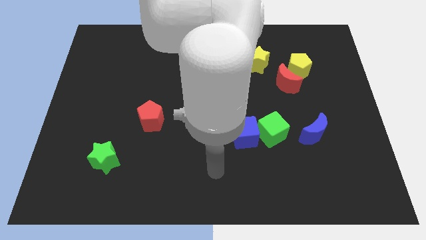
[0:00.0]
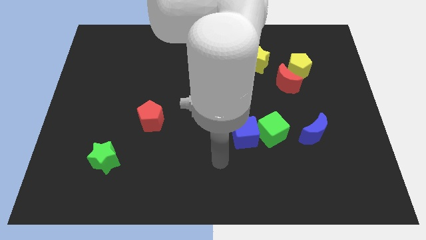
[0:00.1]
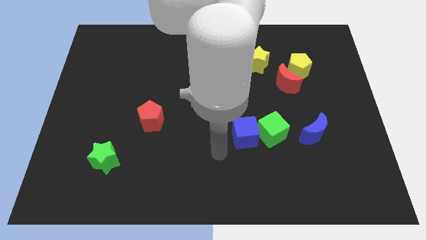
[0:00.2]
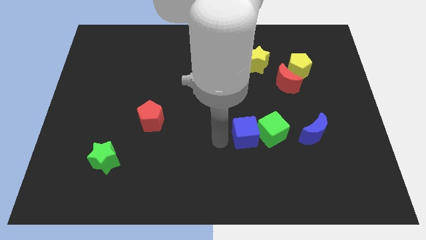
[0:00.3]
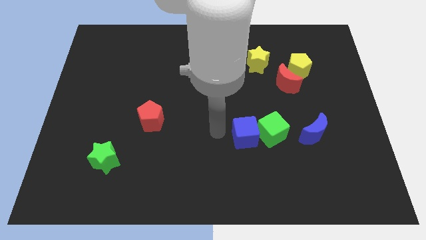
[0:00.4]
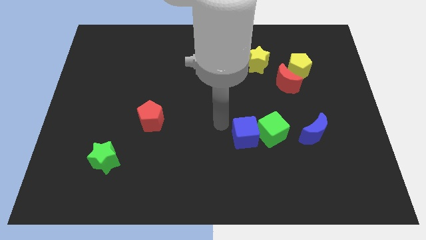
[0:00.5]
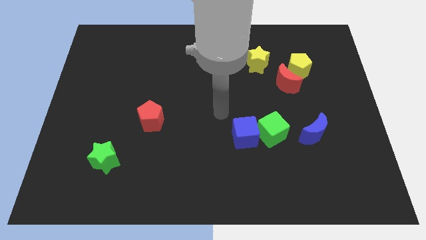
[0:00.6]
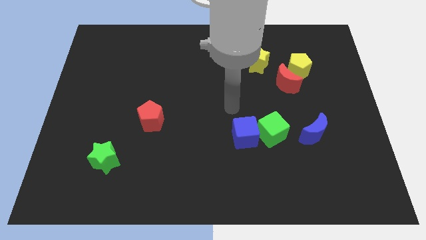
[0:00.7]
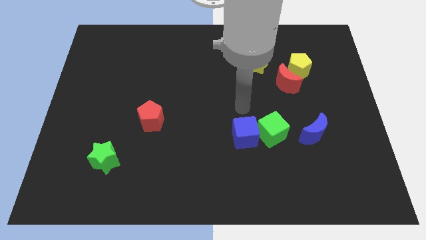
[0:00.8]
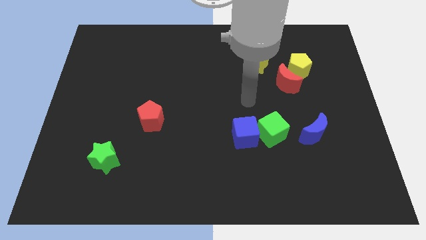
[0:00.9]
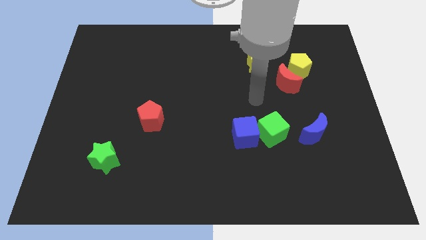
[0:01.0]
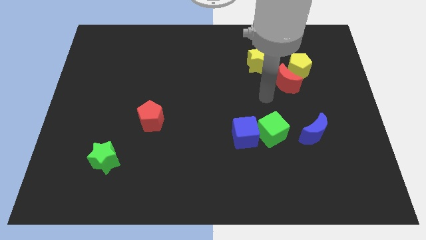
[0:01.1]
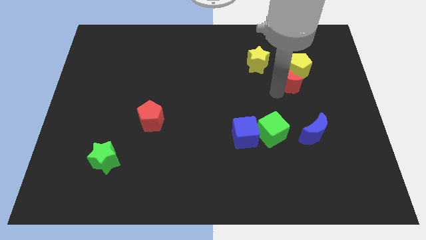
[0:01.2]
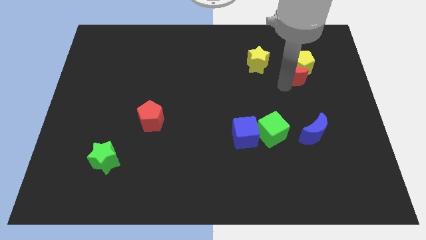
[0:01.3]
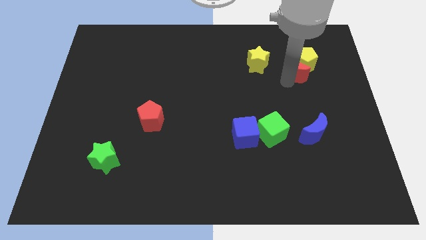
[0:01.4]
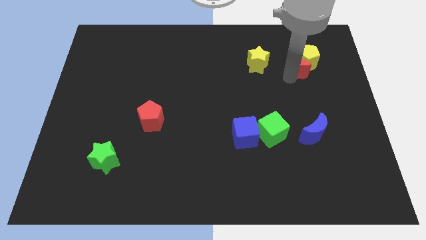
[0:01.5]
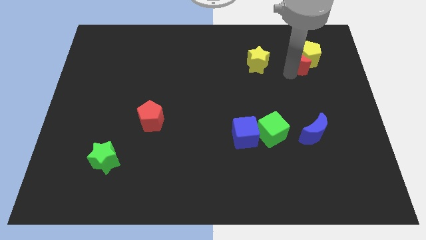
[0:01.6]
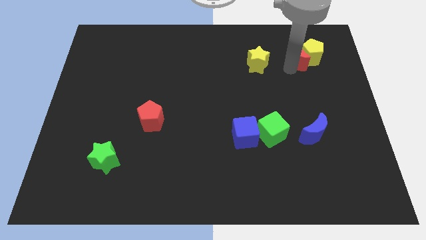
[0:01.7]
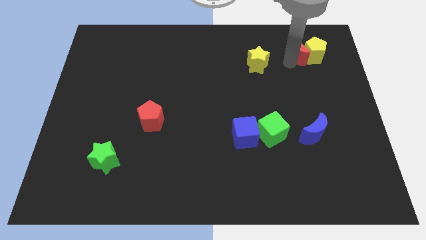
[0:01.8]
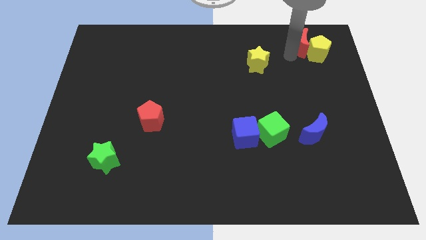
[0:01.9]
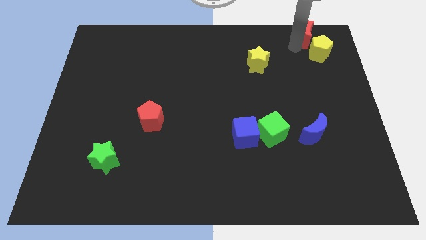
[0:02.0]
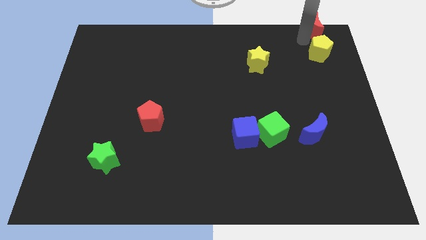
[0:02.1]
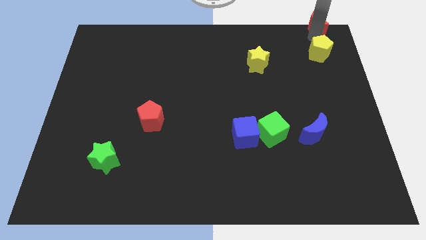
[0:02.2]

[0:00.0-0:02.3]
separate the yellow pentagon from the red moon

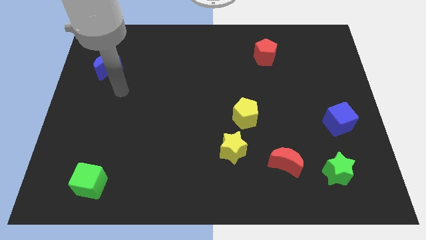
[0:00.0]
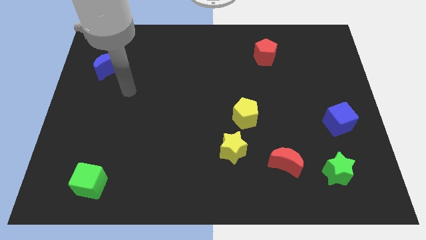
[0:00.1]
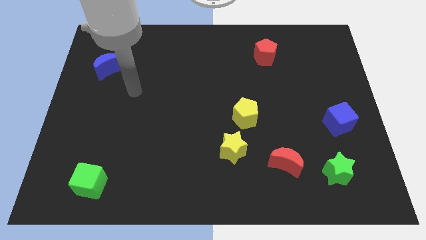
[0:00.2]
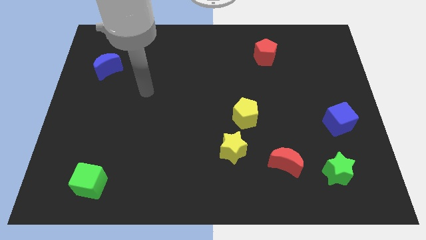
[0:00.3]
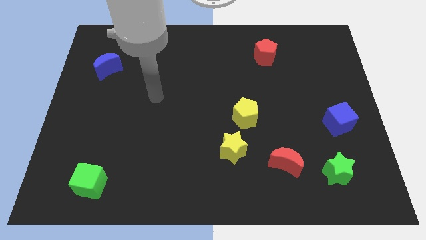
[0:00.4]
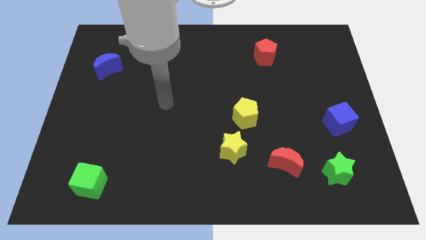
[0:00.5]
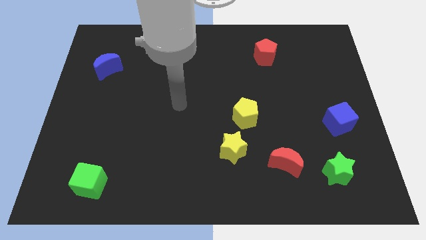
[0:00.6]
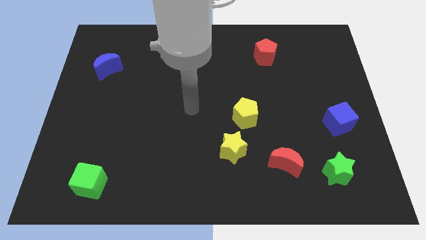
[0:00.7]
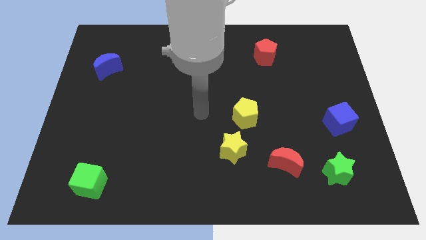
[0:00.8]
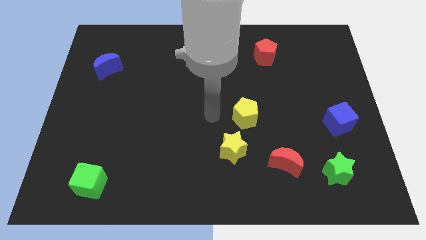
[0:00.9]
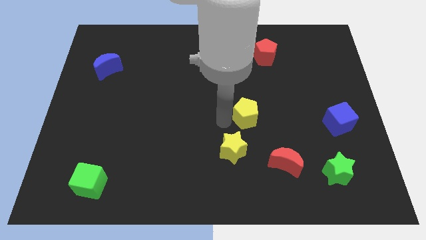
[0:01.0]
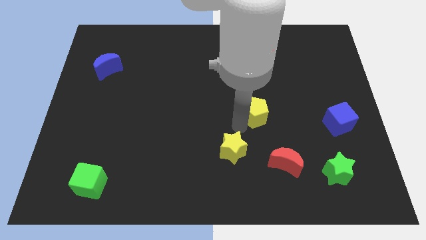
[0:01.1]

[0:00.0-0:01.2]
pull the yellow star apart from the yellow pentagon

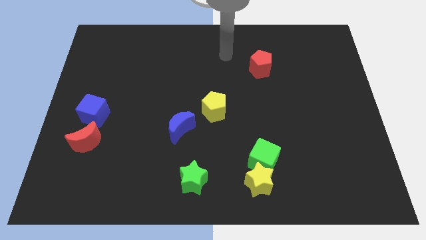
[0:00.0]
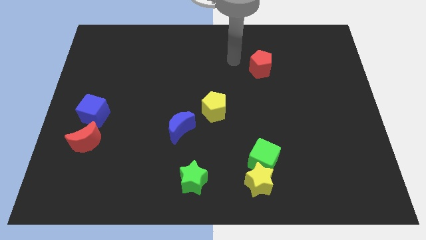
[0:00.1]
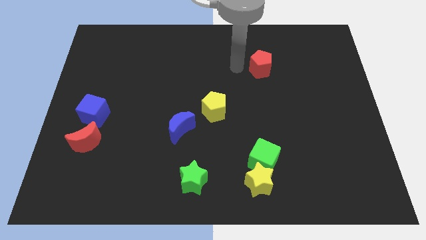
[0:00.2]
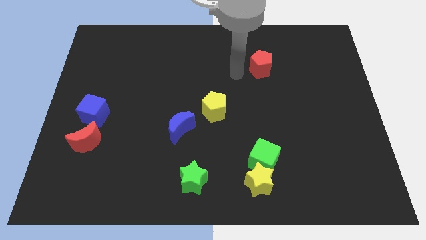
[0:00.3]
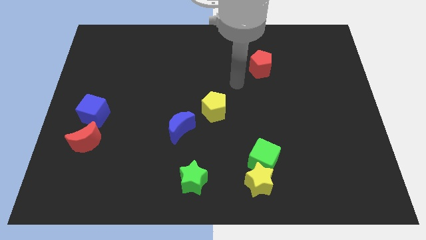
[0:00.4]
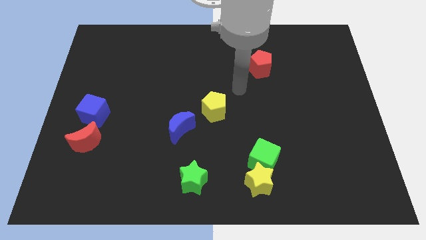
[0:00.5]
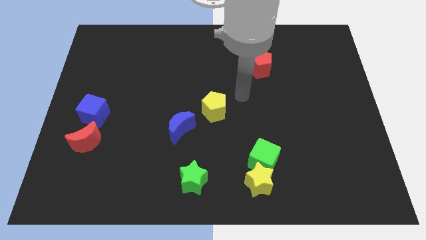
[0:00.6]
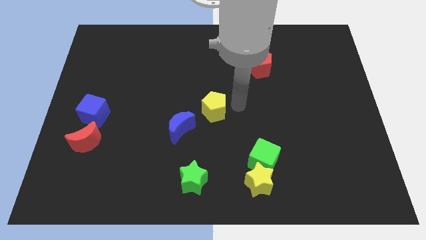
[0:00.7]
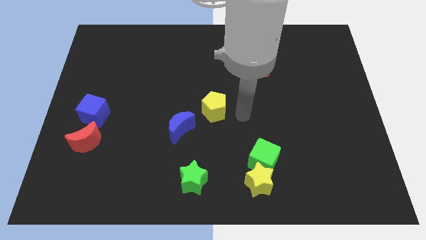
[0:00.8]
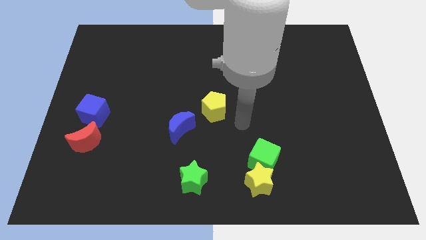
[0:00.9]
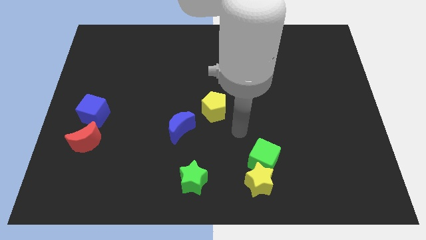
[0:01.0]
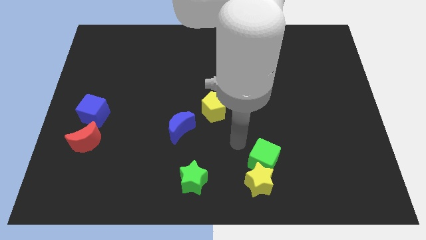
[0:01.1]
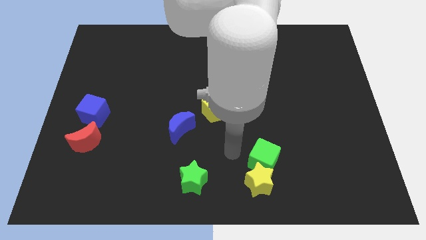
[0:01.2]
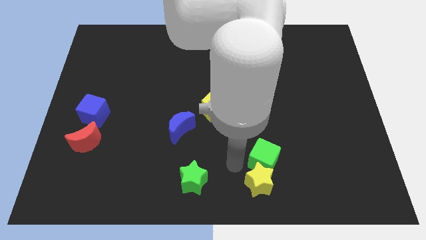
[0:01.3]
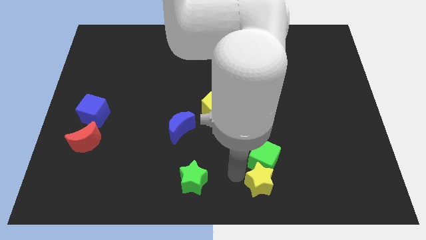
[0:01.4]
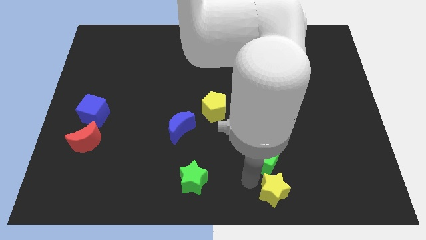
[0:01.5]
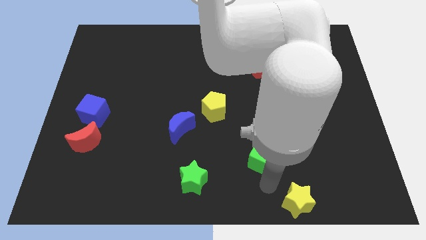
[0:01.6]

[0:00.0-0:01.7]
separate the green cube from the yellow star

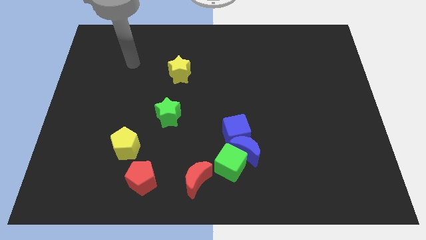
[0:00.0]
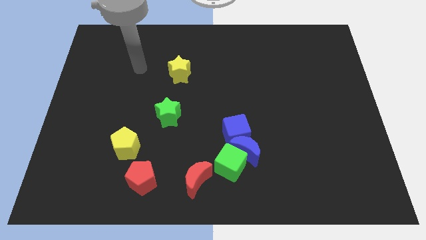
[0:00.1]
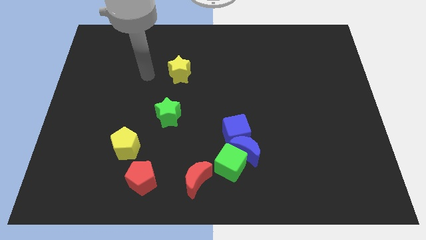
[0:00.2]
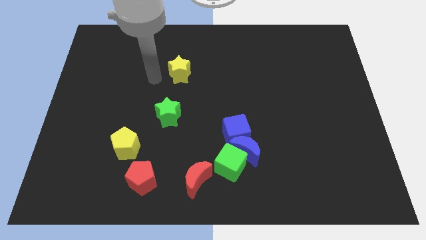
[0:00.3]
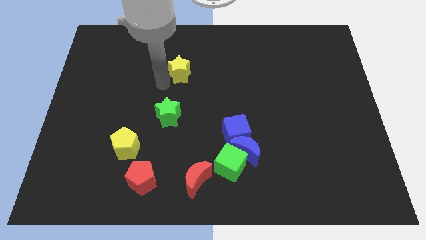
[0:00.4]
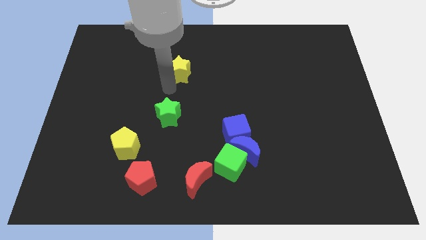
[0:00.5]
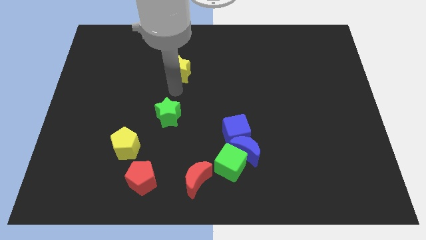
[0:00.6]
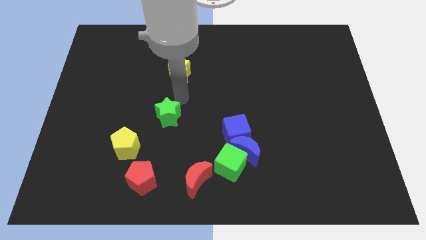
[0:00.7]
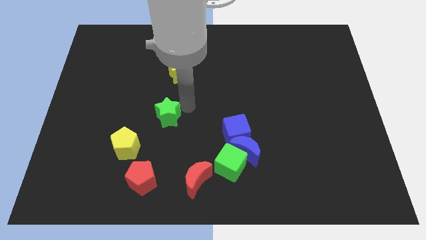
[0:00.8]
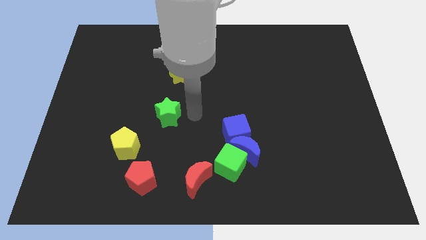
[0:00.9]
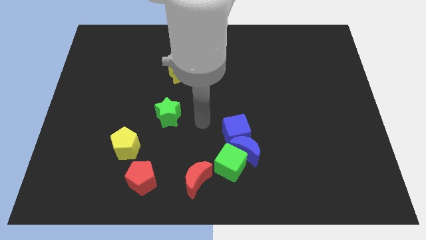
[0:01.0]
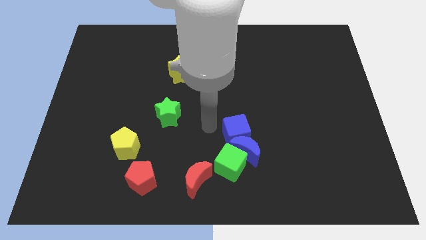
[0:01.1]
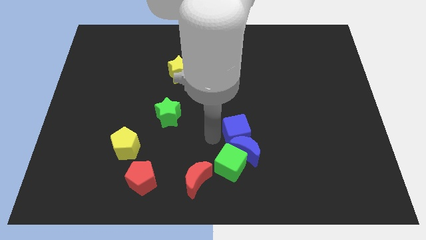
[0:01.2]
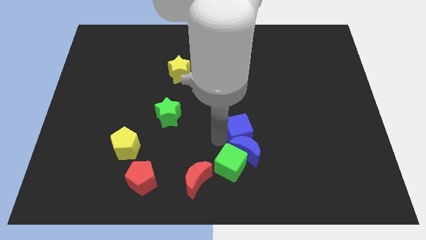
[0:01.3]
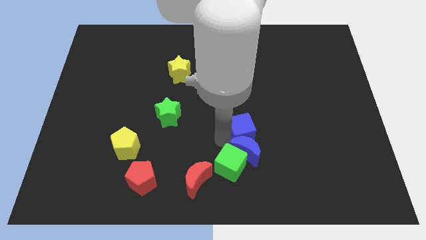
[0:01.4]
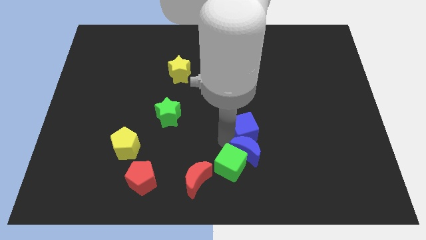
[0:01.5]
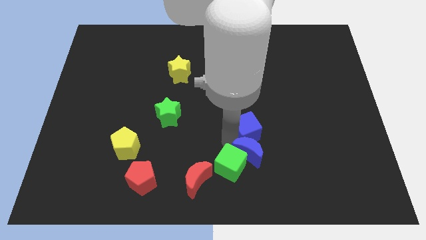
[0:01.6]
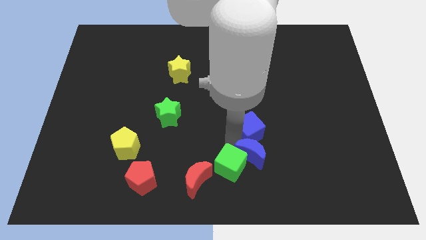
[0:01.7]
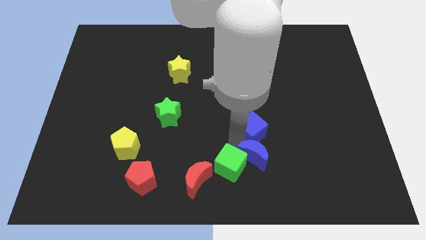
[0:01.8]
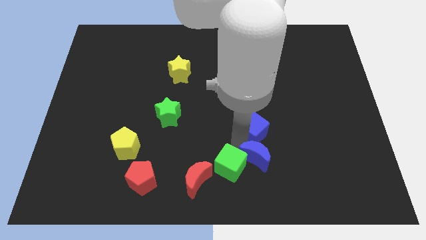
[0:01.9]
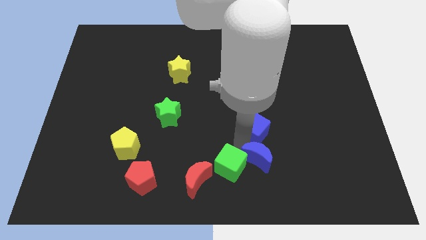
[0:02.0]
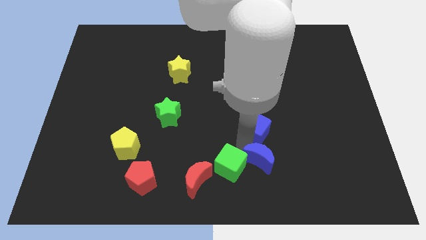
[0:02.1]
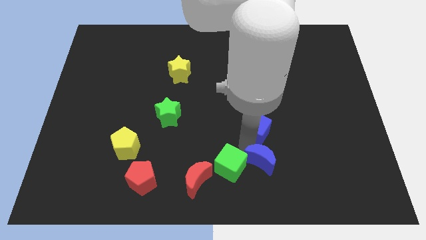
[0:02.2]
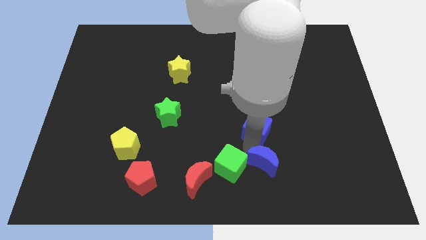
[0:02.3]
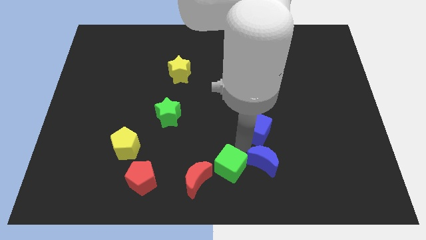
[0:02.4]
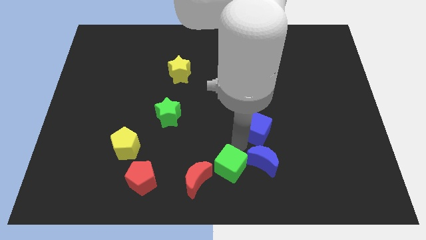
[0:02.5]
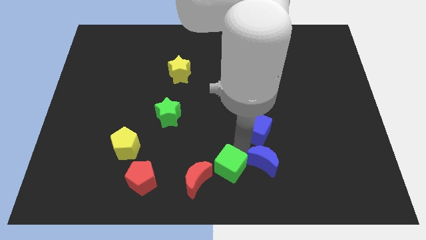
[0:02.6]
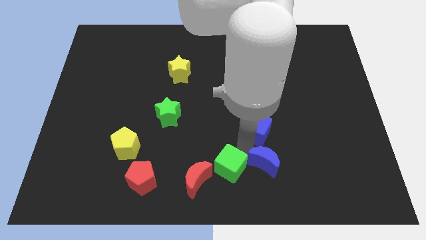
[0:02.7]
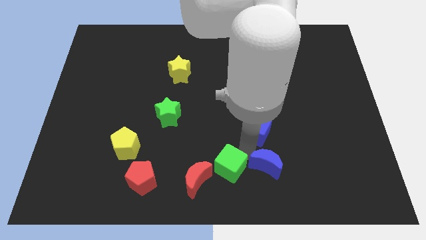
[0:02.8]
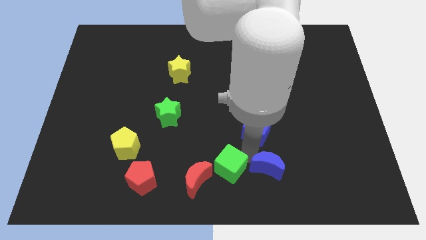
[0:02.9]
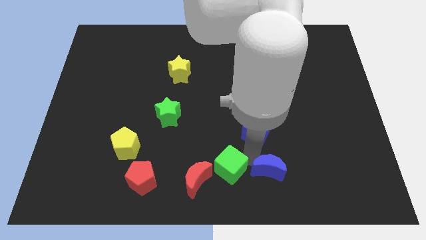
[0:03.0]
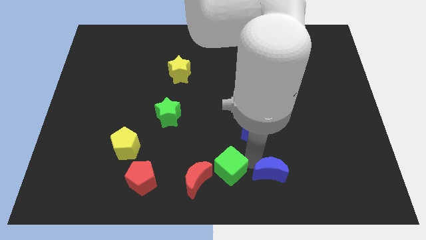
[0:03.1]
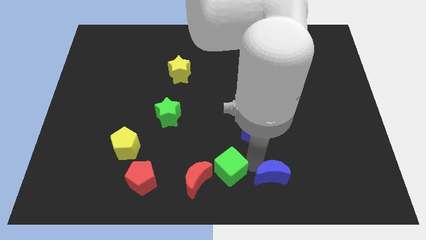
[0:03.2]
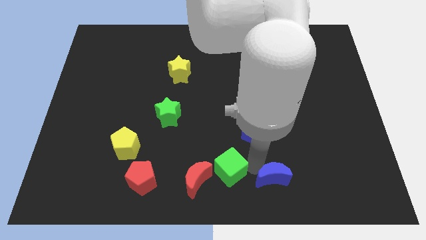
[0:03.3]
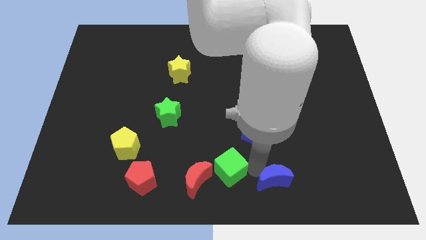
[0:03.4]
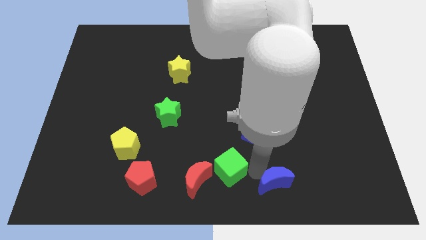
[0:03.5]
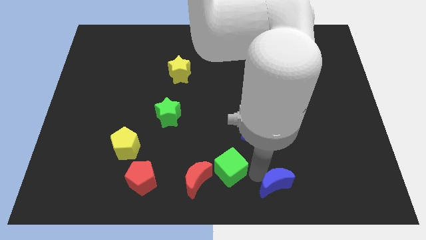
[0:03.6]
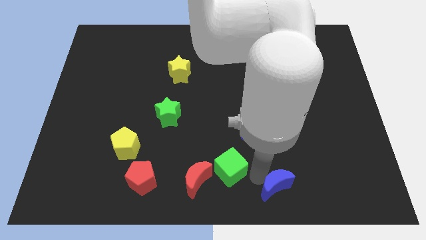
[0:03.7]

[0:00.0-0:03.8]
move the blue moon away from the green cube and blue cube

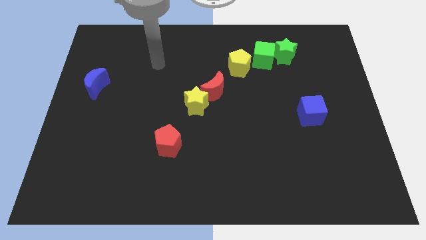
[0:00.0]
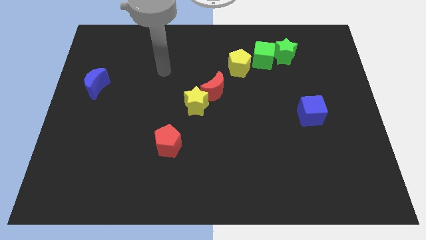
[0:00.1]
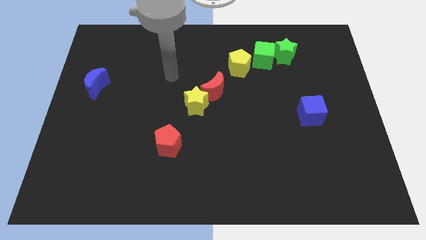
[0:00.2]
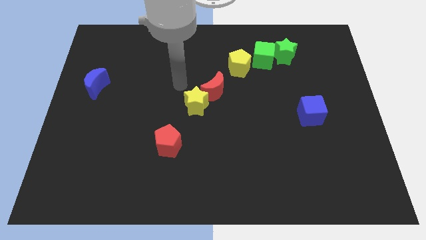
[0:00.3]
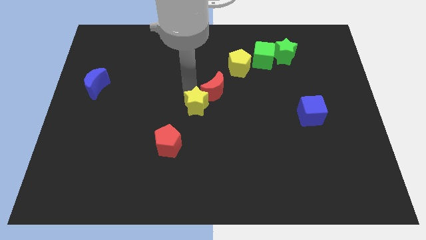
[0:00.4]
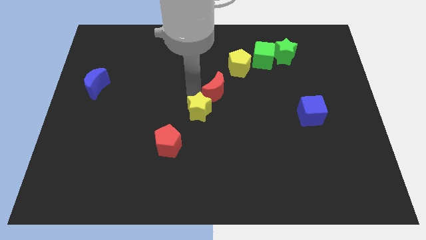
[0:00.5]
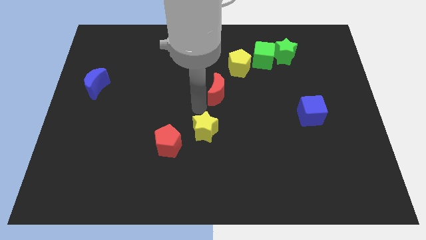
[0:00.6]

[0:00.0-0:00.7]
separate the red moon from the yellow star
